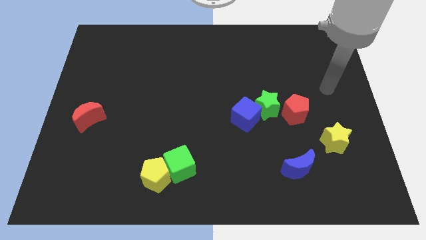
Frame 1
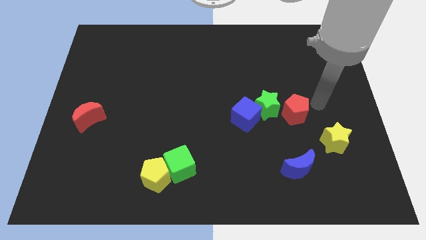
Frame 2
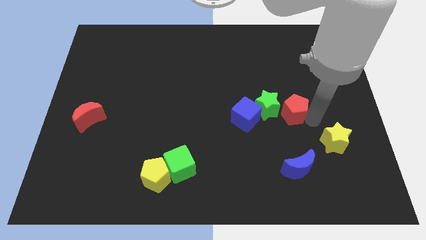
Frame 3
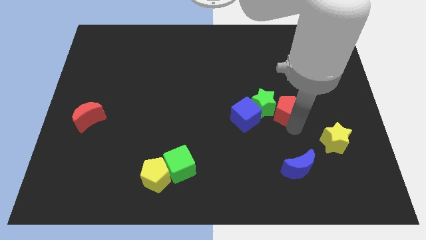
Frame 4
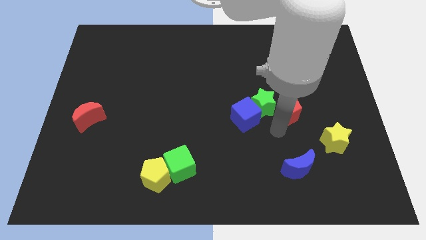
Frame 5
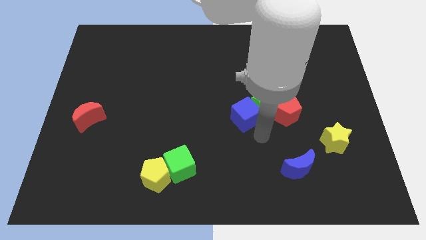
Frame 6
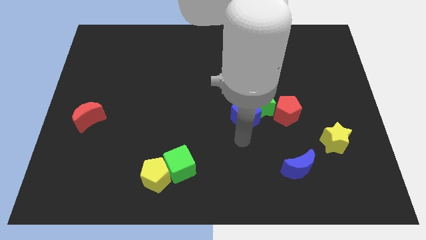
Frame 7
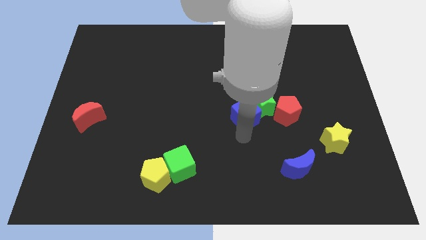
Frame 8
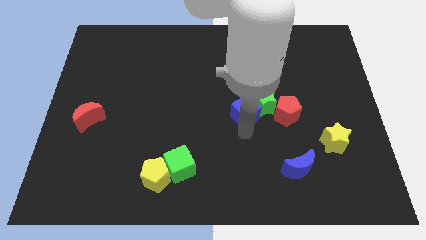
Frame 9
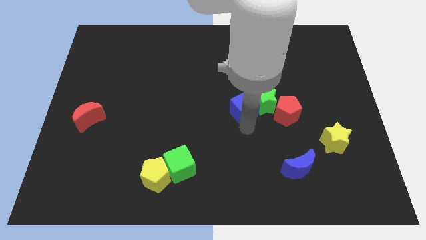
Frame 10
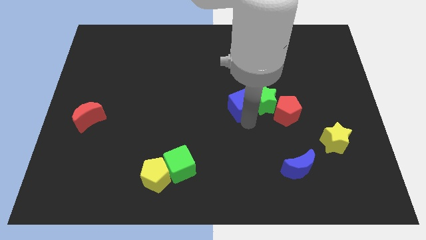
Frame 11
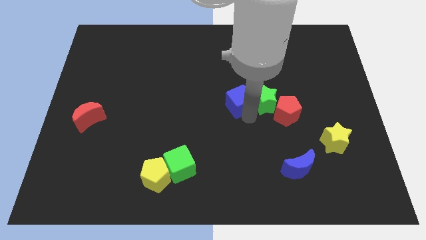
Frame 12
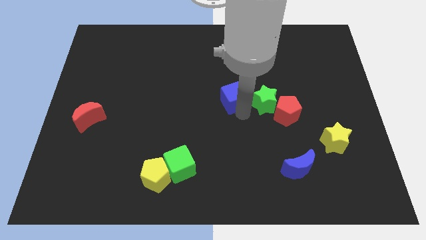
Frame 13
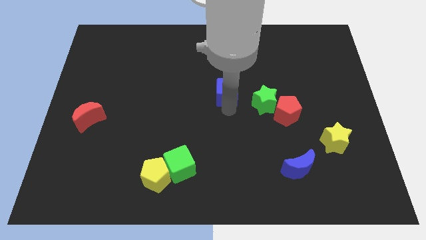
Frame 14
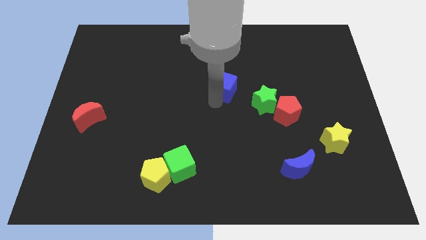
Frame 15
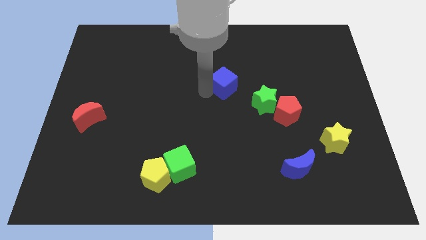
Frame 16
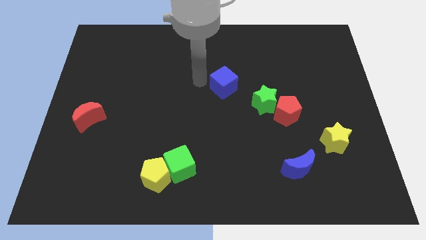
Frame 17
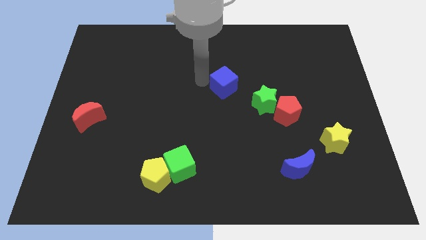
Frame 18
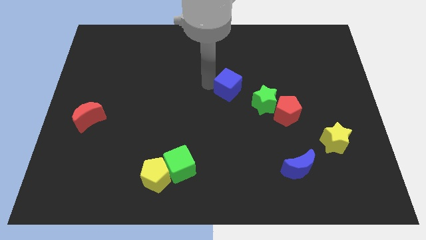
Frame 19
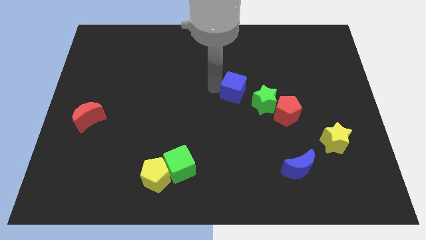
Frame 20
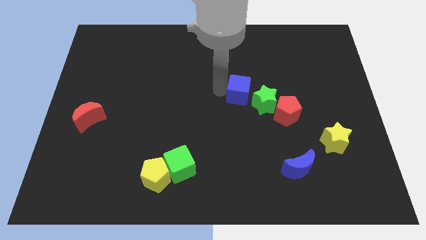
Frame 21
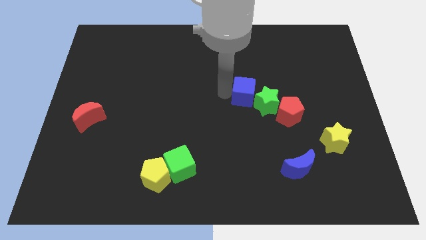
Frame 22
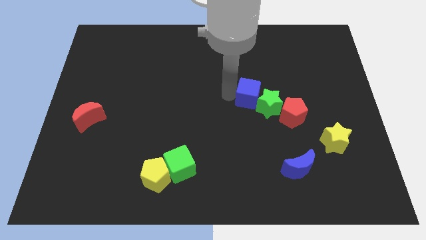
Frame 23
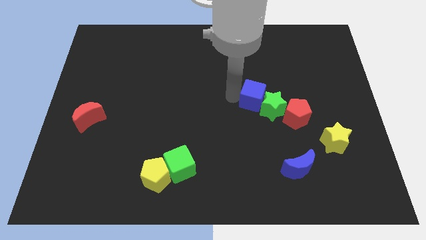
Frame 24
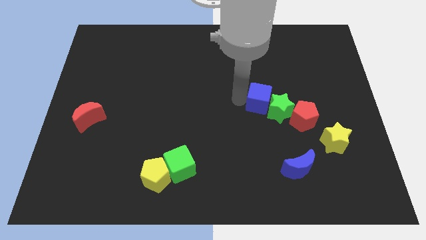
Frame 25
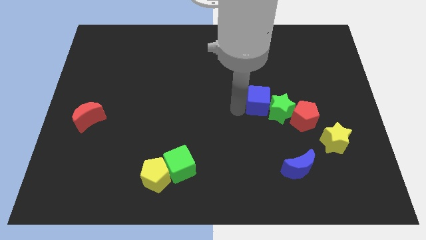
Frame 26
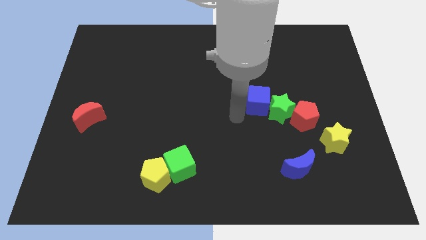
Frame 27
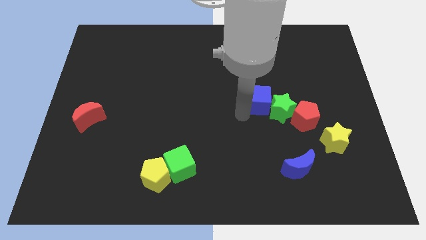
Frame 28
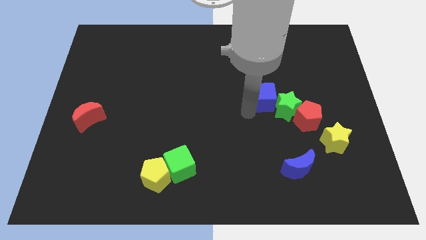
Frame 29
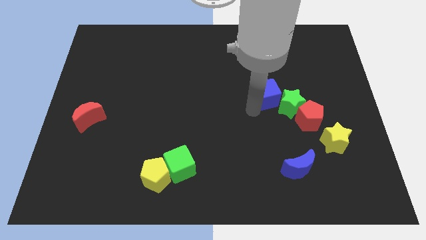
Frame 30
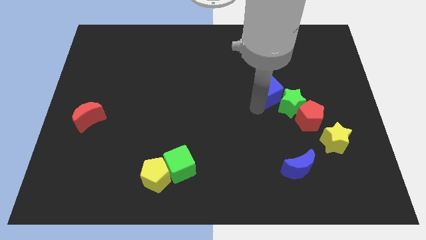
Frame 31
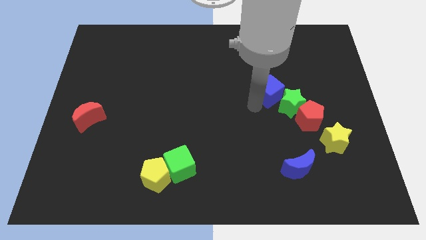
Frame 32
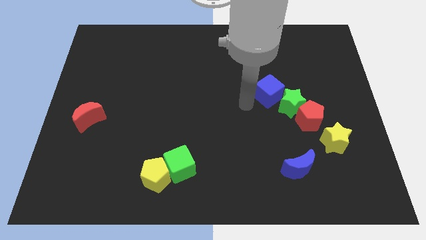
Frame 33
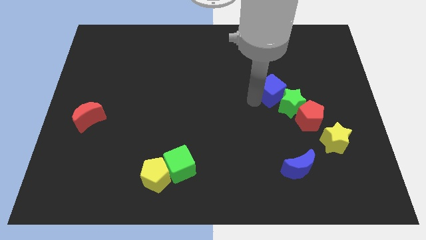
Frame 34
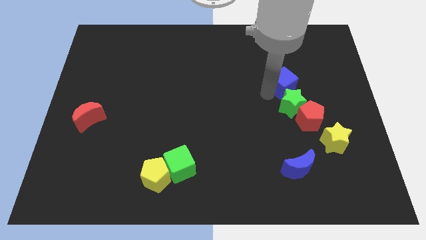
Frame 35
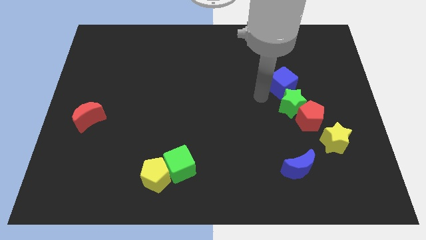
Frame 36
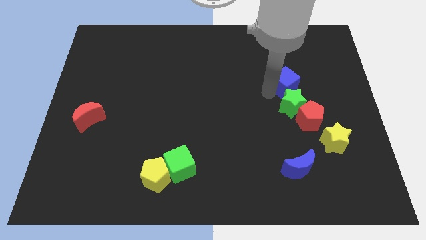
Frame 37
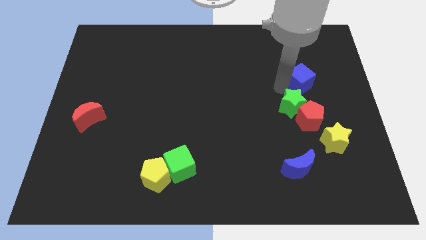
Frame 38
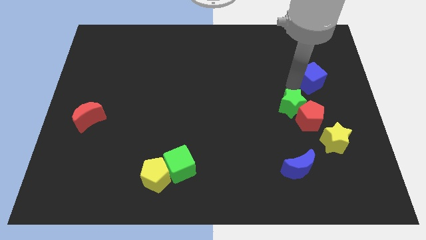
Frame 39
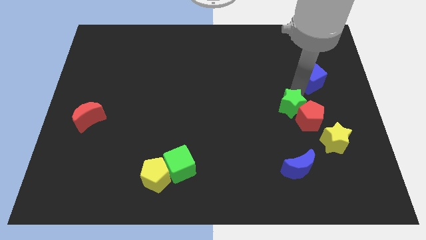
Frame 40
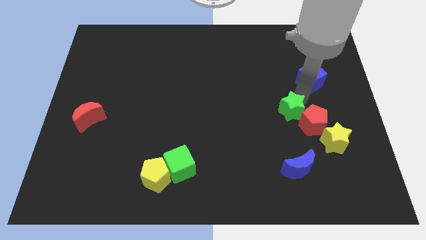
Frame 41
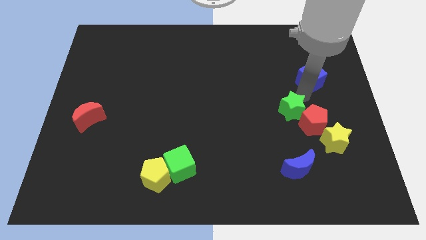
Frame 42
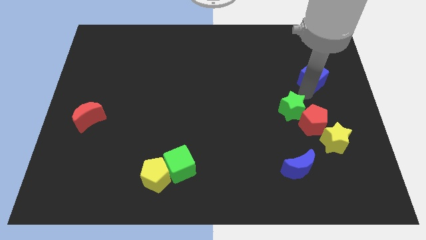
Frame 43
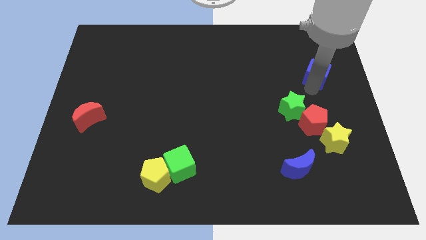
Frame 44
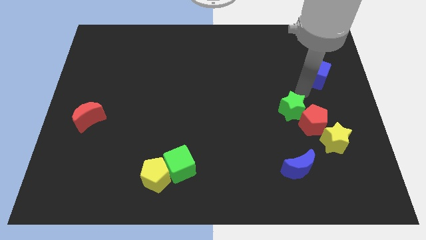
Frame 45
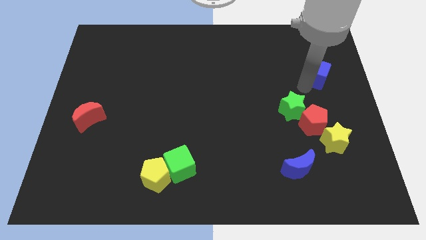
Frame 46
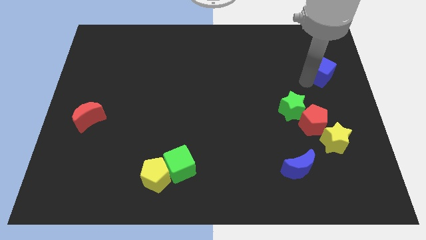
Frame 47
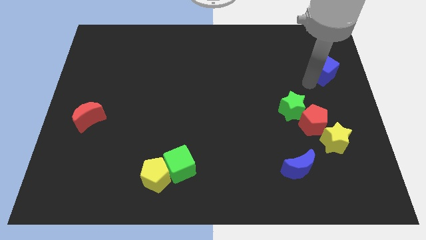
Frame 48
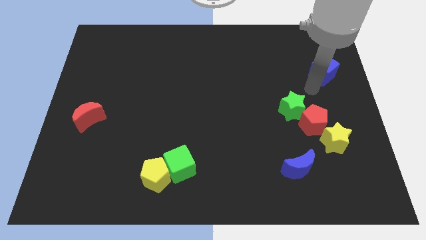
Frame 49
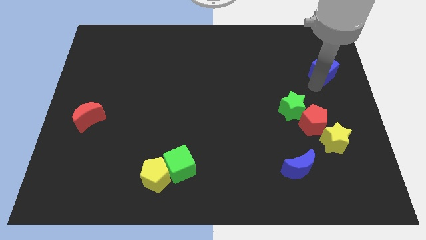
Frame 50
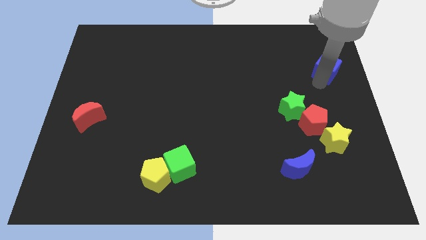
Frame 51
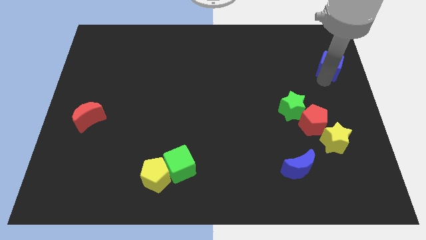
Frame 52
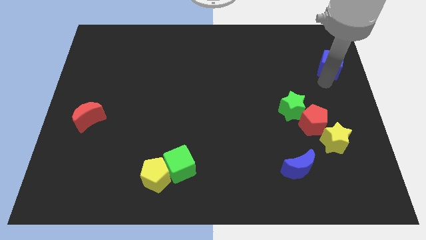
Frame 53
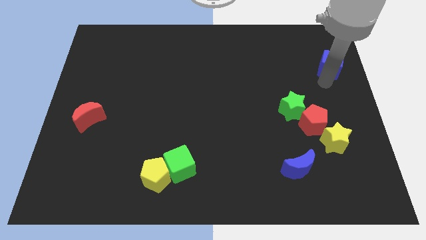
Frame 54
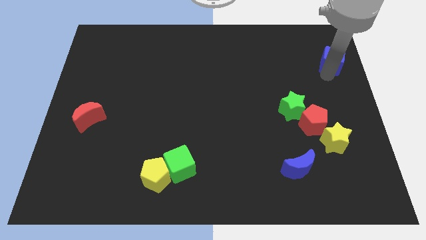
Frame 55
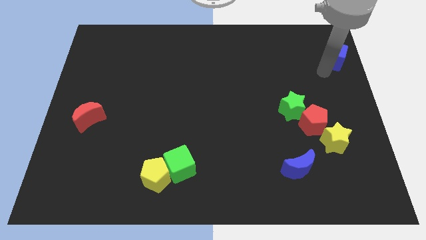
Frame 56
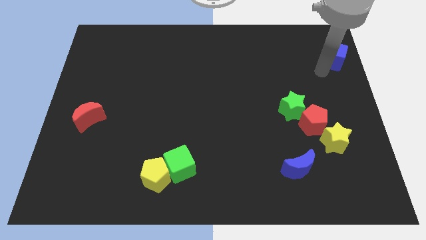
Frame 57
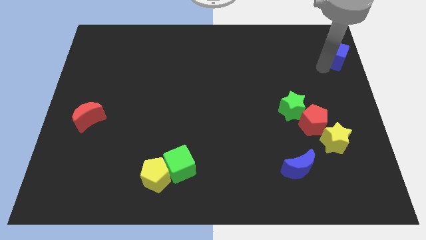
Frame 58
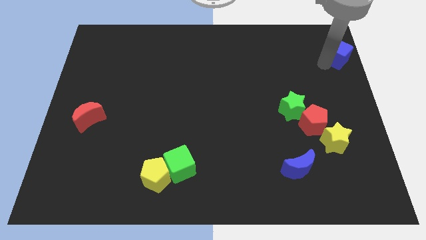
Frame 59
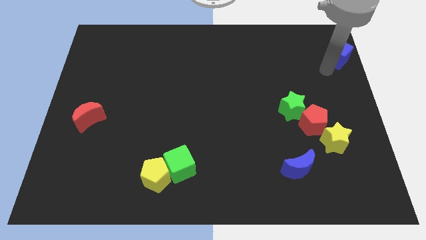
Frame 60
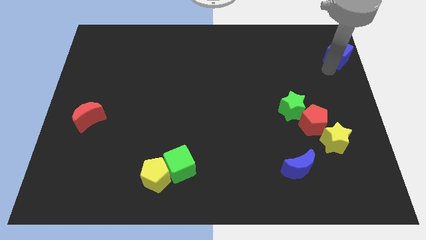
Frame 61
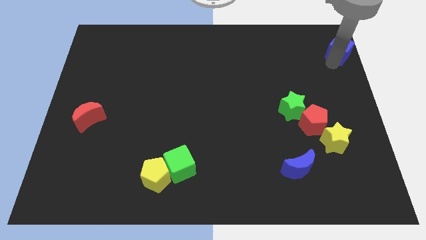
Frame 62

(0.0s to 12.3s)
slide the blue cube to the top right of the board

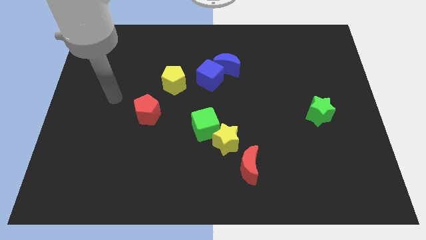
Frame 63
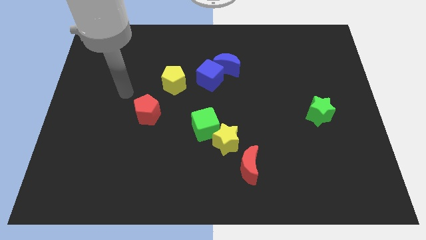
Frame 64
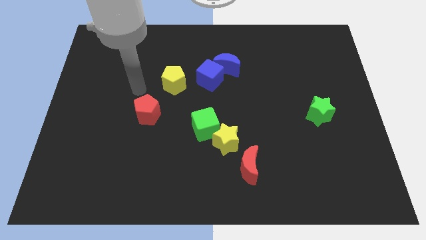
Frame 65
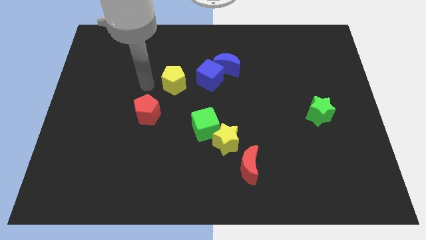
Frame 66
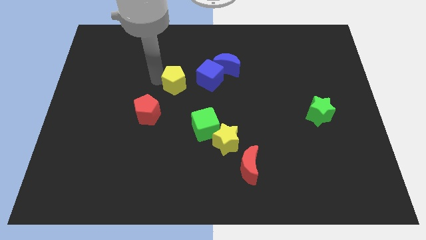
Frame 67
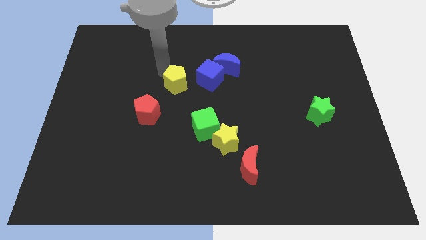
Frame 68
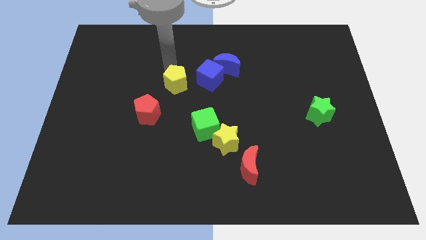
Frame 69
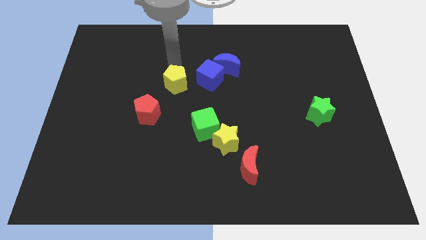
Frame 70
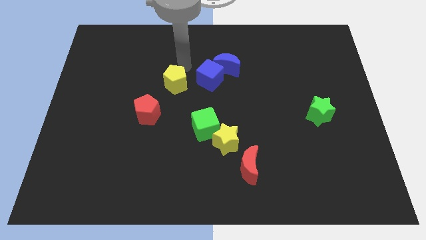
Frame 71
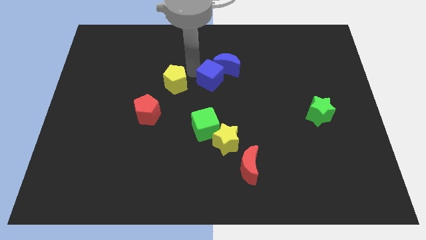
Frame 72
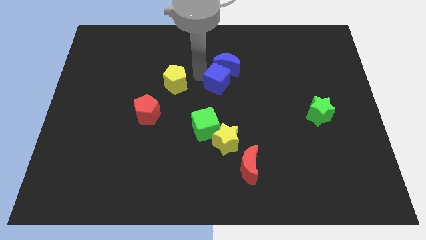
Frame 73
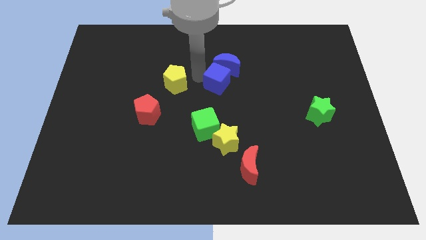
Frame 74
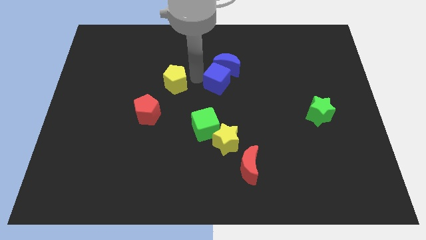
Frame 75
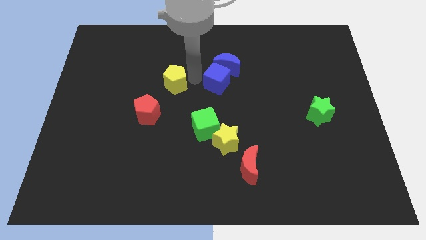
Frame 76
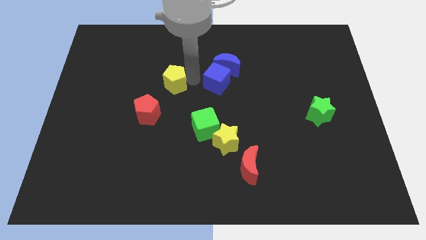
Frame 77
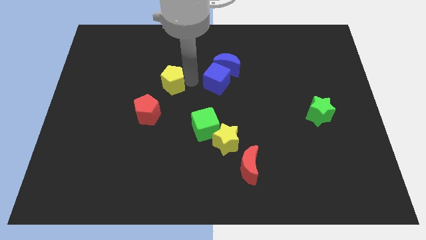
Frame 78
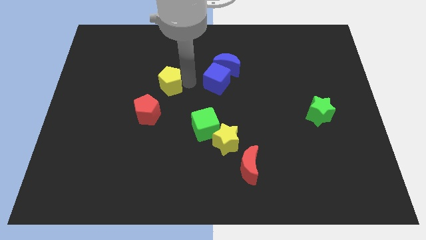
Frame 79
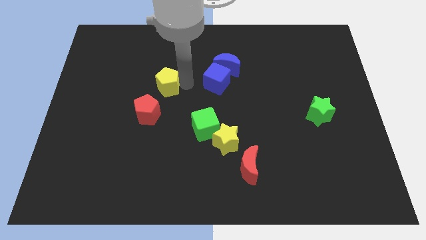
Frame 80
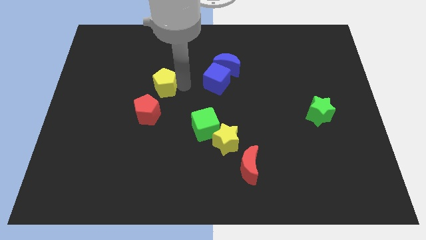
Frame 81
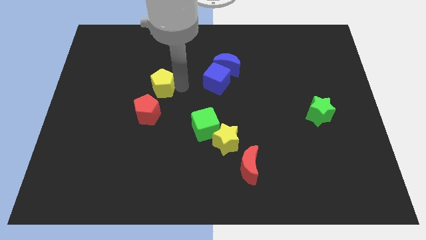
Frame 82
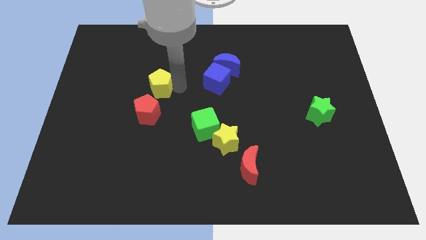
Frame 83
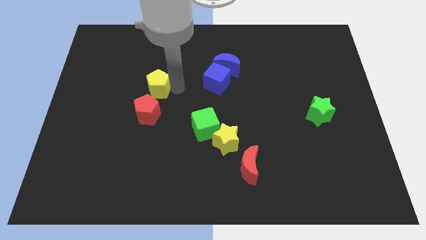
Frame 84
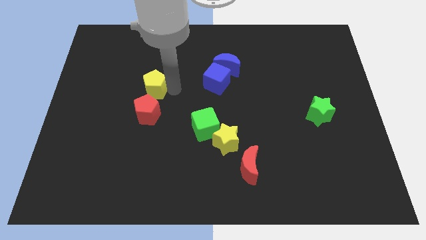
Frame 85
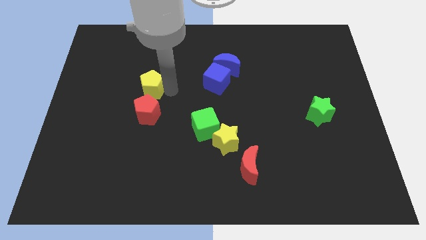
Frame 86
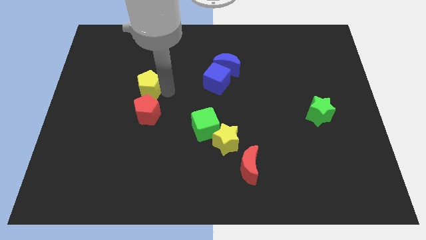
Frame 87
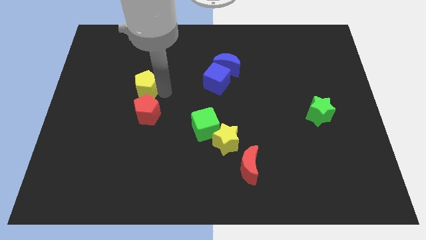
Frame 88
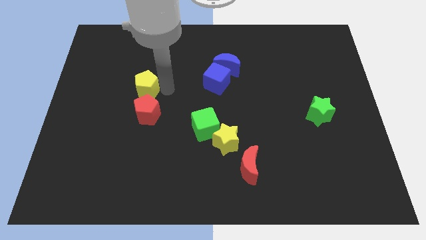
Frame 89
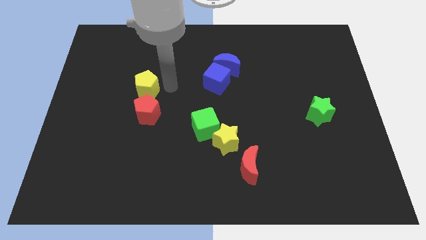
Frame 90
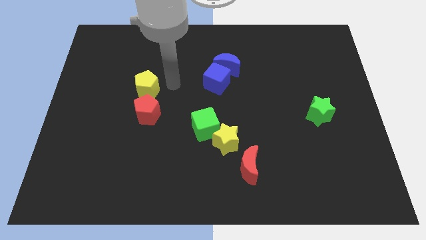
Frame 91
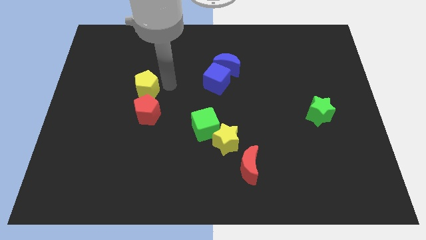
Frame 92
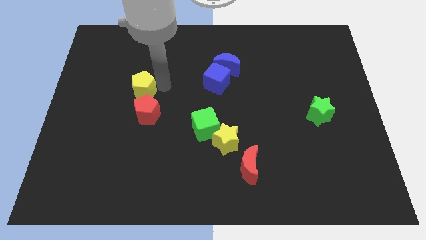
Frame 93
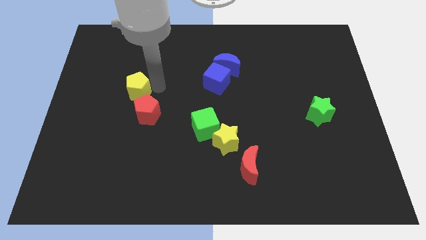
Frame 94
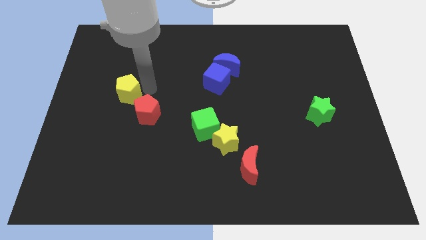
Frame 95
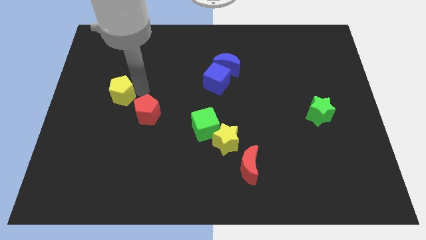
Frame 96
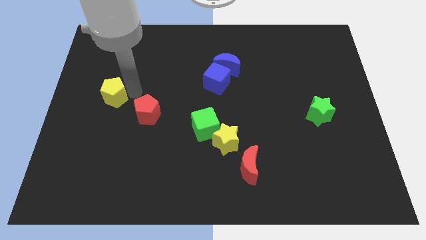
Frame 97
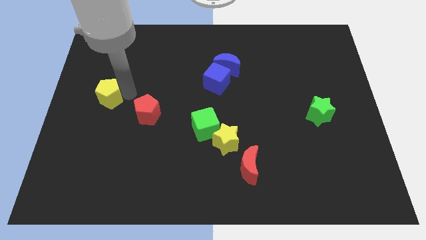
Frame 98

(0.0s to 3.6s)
move the yellow pentagon to the center left
